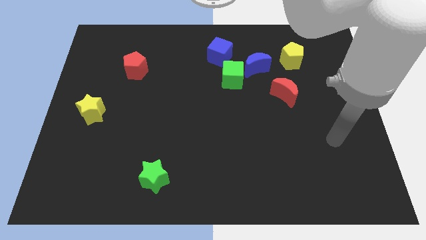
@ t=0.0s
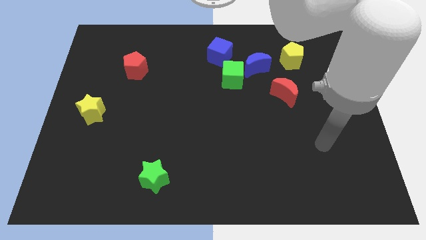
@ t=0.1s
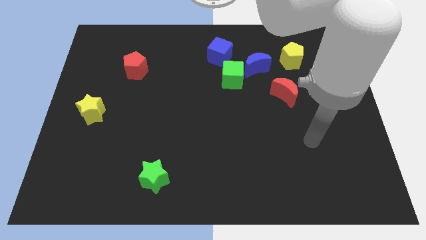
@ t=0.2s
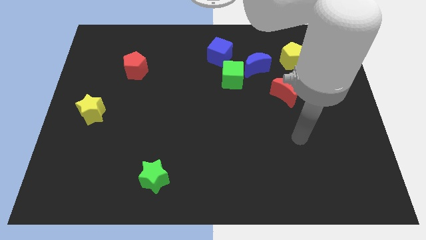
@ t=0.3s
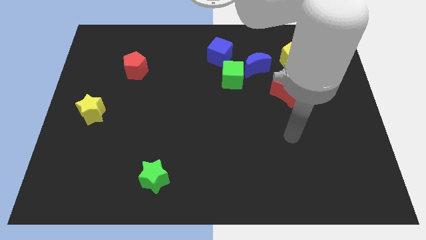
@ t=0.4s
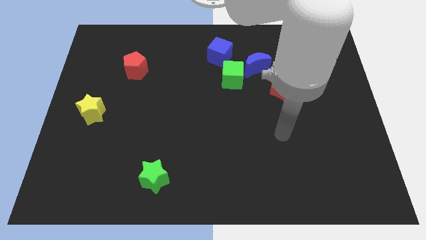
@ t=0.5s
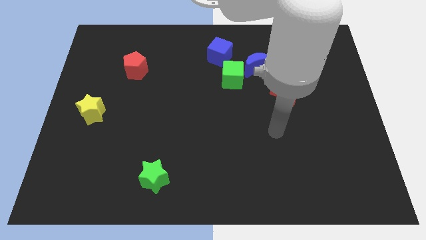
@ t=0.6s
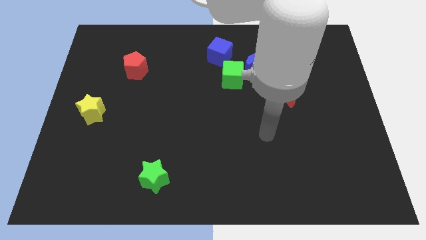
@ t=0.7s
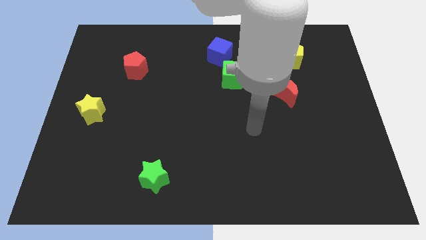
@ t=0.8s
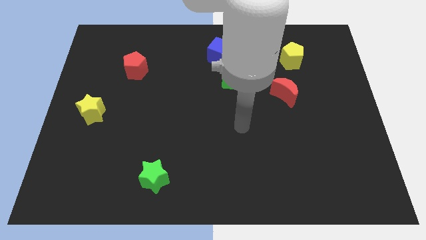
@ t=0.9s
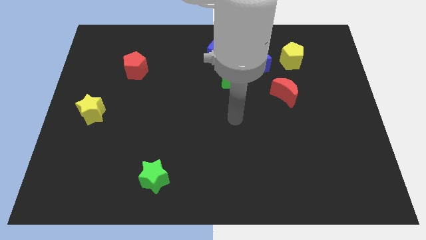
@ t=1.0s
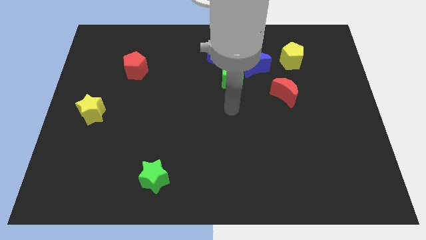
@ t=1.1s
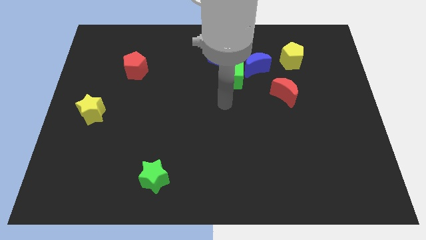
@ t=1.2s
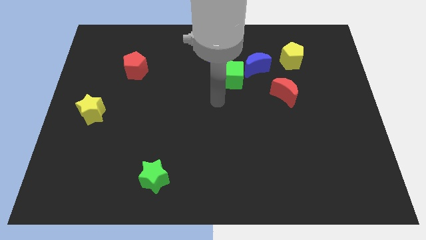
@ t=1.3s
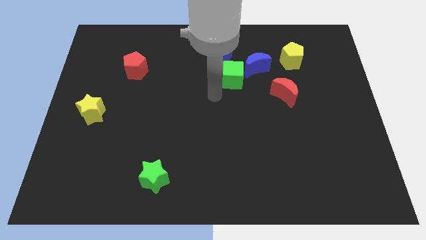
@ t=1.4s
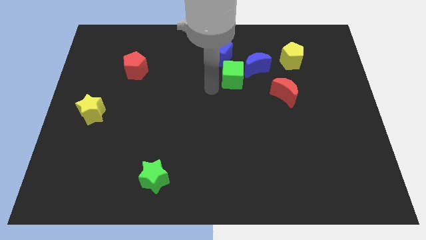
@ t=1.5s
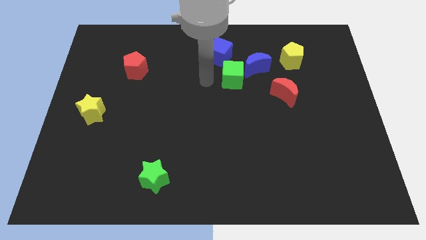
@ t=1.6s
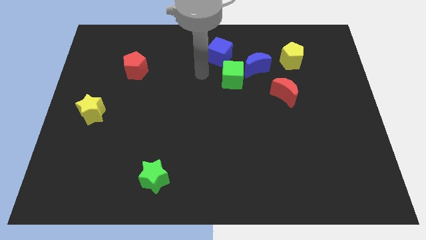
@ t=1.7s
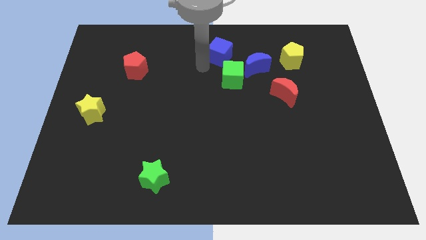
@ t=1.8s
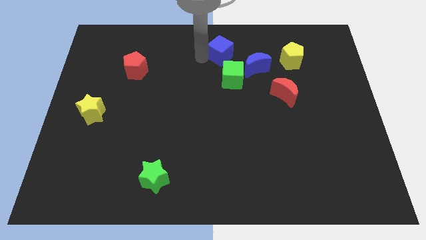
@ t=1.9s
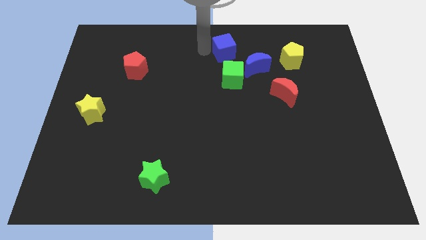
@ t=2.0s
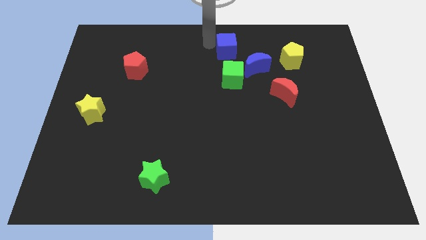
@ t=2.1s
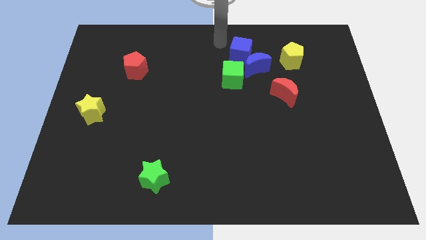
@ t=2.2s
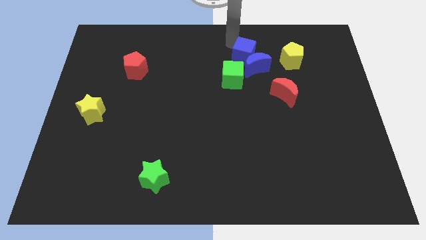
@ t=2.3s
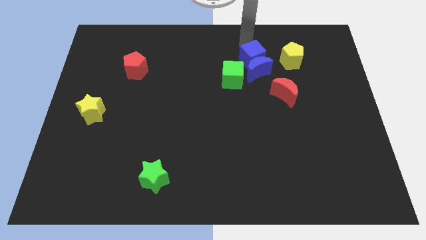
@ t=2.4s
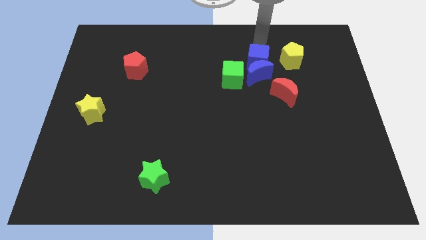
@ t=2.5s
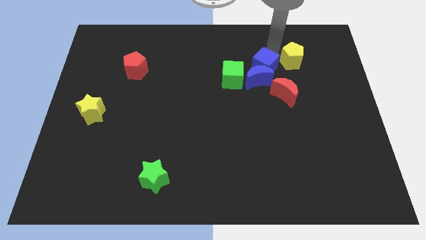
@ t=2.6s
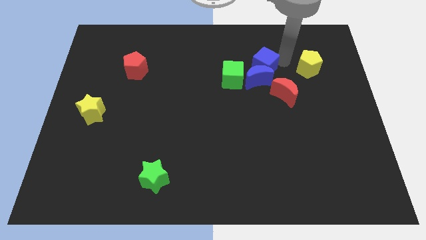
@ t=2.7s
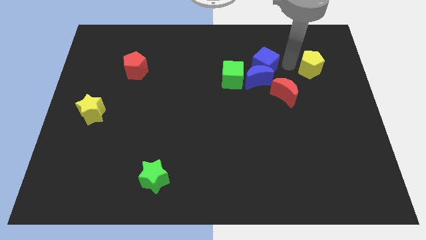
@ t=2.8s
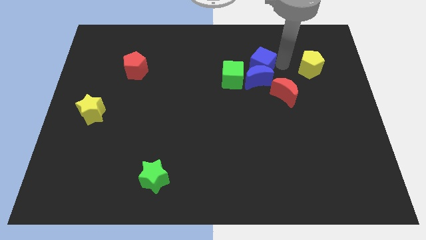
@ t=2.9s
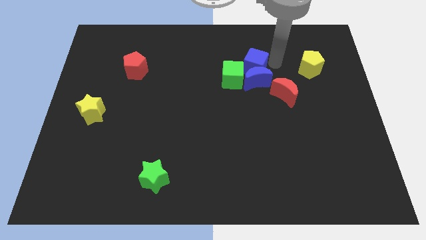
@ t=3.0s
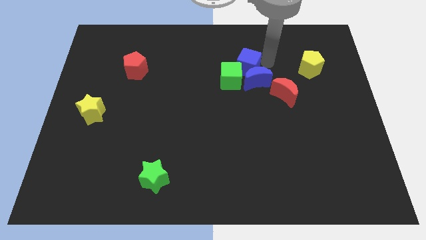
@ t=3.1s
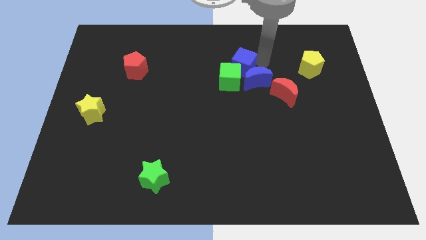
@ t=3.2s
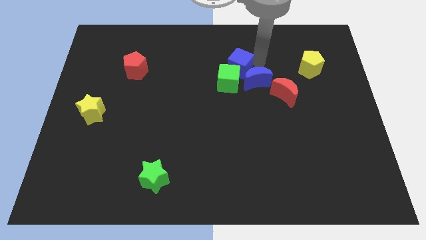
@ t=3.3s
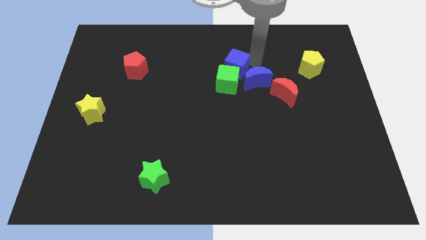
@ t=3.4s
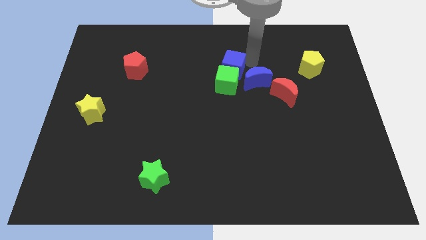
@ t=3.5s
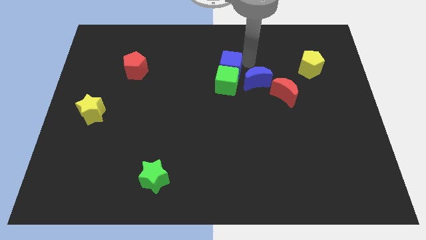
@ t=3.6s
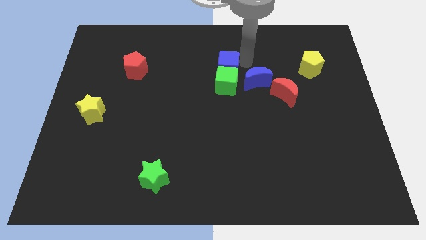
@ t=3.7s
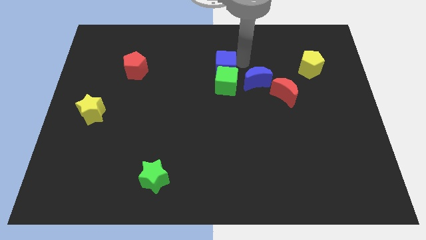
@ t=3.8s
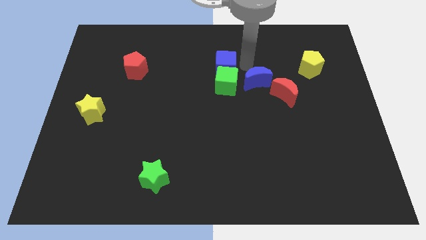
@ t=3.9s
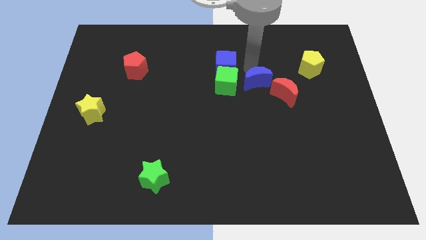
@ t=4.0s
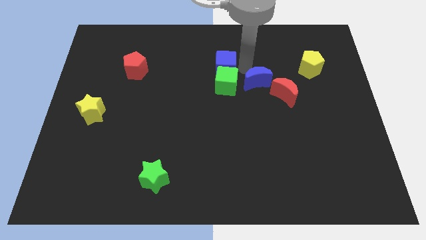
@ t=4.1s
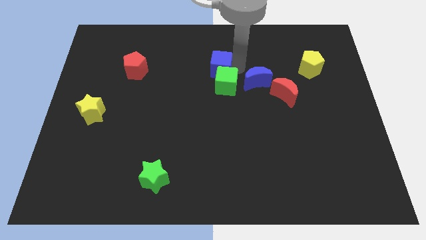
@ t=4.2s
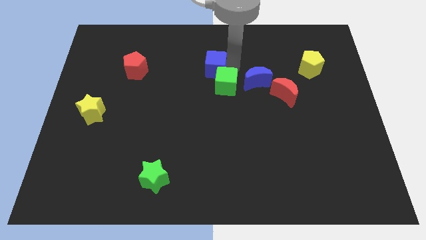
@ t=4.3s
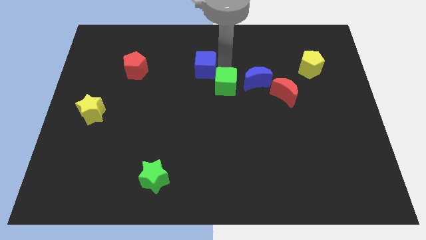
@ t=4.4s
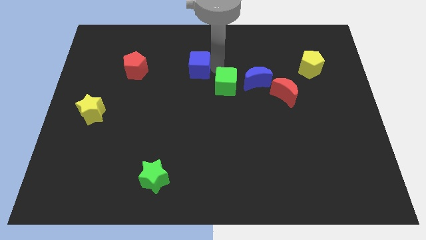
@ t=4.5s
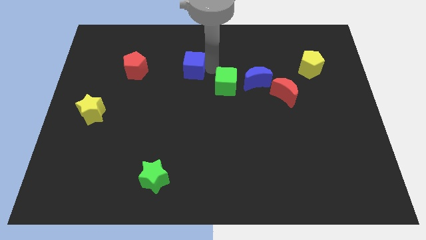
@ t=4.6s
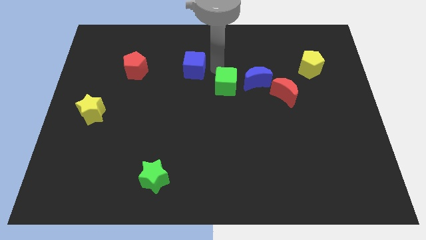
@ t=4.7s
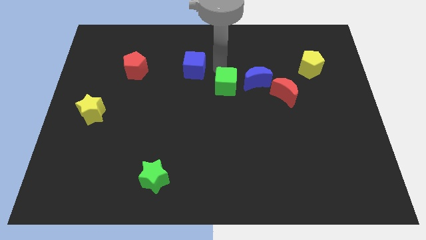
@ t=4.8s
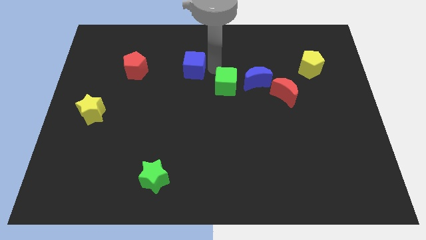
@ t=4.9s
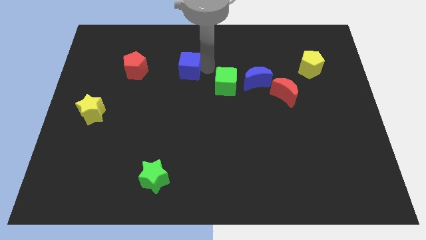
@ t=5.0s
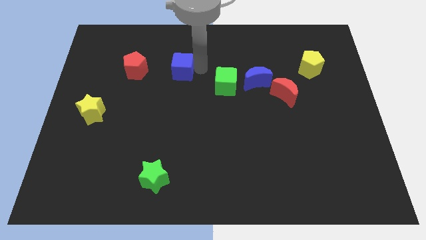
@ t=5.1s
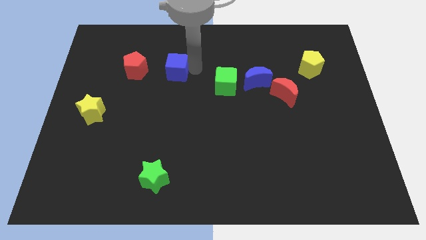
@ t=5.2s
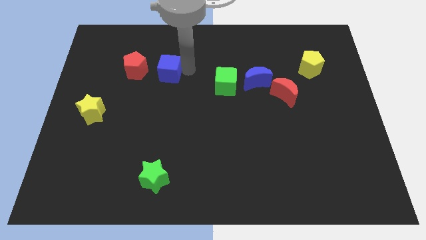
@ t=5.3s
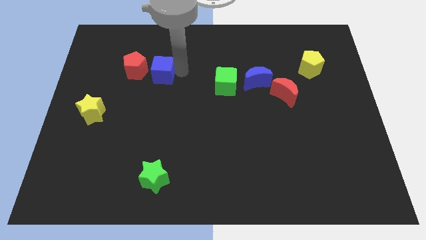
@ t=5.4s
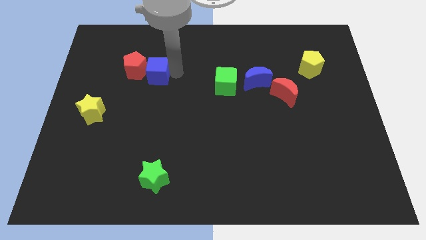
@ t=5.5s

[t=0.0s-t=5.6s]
push the blue cube next to the red pentagon

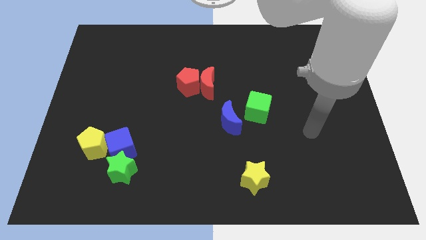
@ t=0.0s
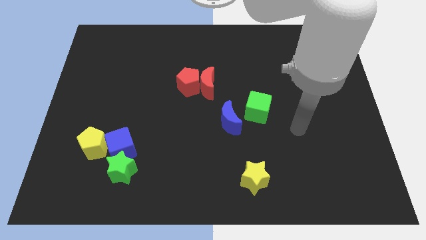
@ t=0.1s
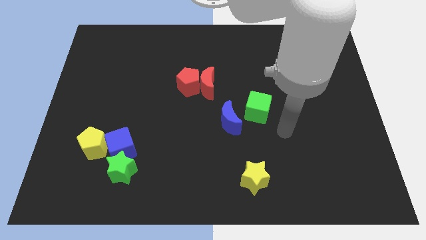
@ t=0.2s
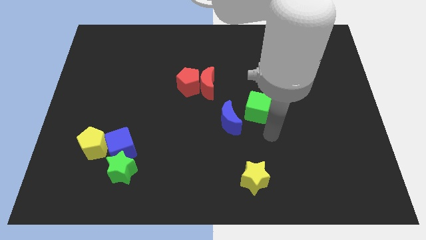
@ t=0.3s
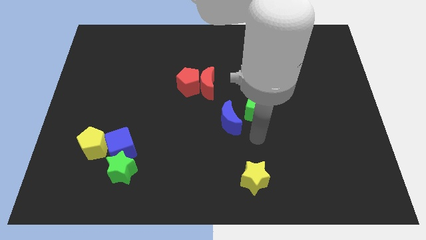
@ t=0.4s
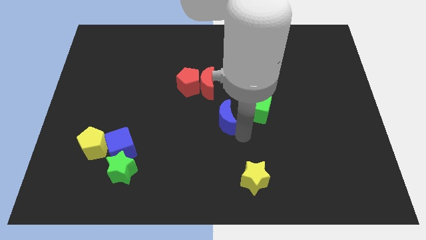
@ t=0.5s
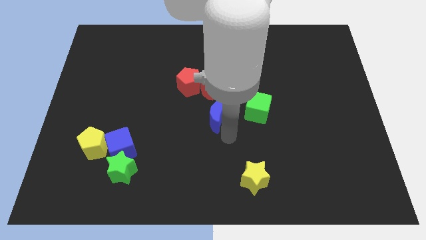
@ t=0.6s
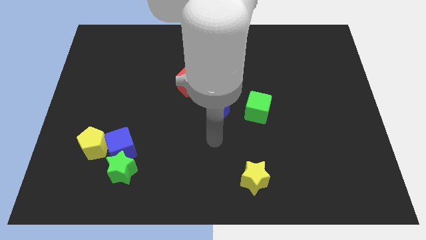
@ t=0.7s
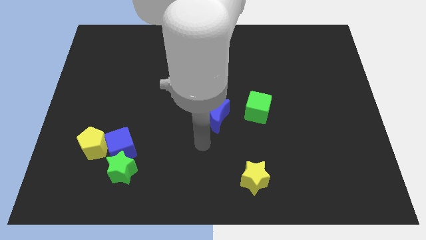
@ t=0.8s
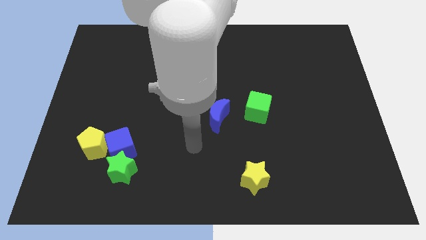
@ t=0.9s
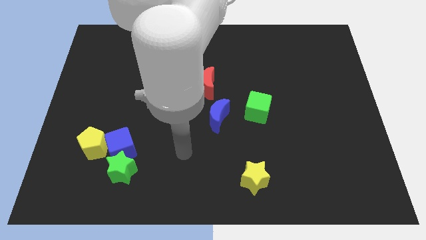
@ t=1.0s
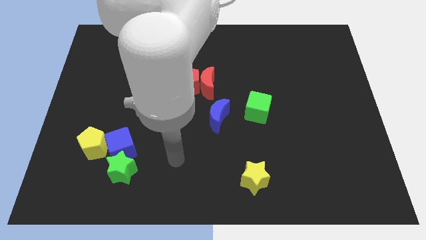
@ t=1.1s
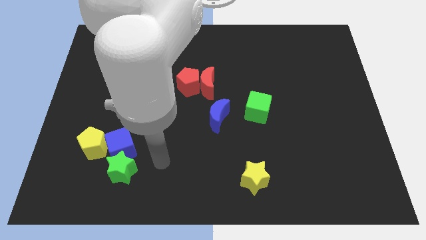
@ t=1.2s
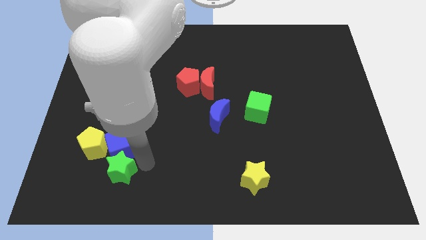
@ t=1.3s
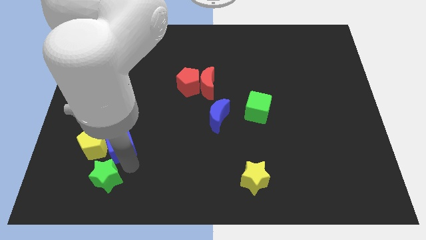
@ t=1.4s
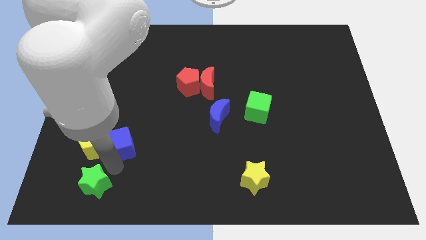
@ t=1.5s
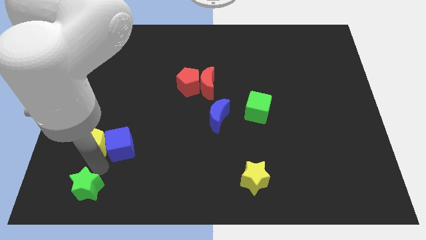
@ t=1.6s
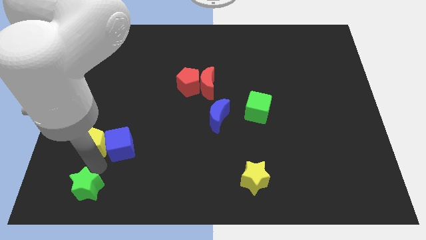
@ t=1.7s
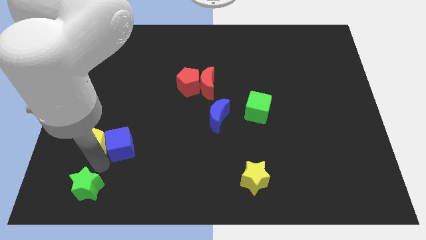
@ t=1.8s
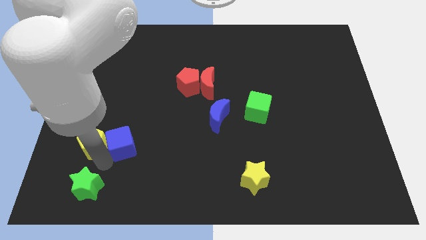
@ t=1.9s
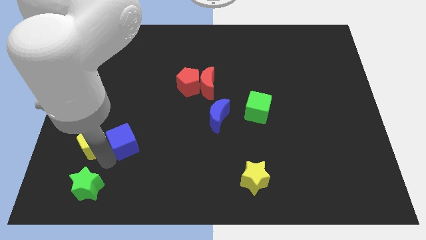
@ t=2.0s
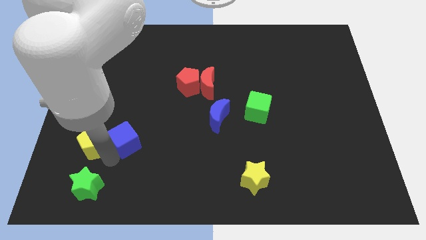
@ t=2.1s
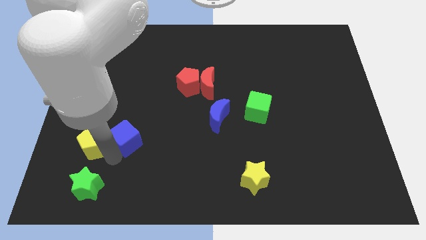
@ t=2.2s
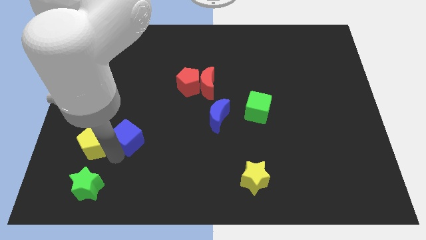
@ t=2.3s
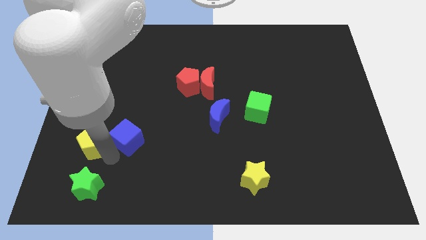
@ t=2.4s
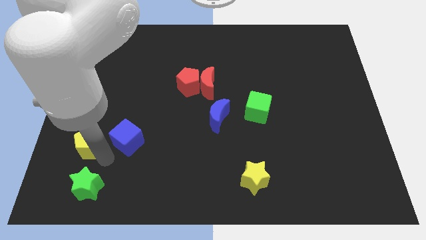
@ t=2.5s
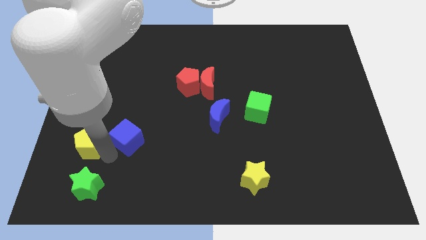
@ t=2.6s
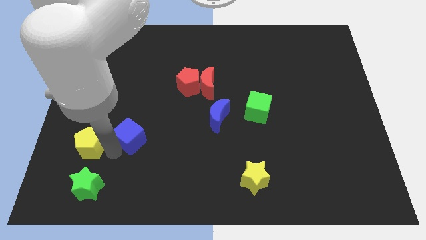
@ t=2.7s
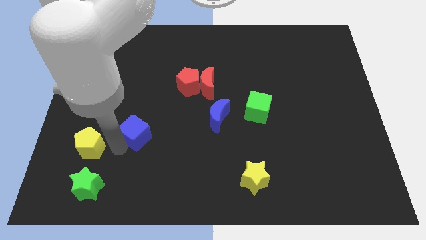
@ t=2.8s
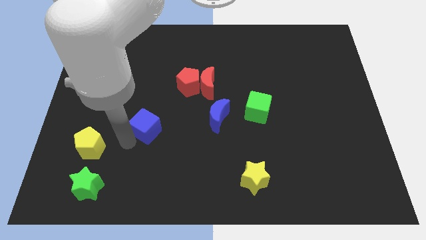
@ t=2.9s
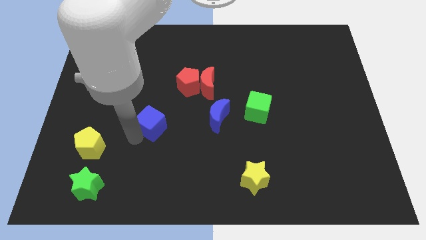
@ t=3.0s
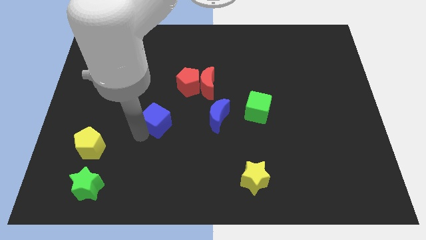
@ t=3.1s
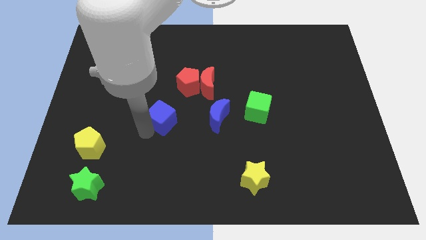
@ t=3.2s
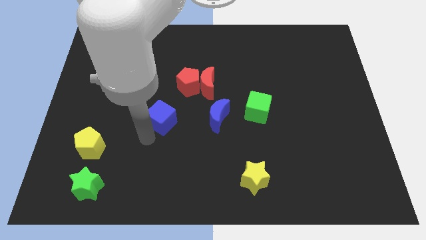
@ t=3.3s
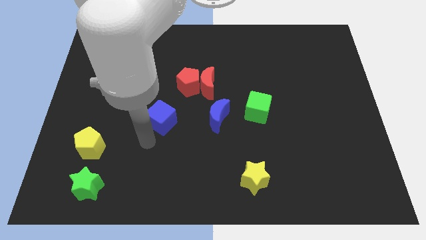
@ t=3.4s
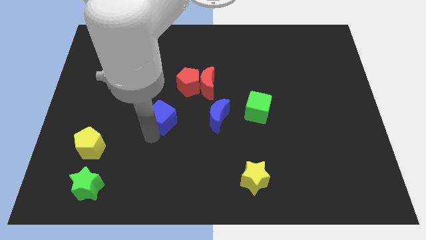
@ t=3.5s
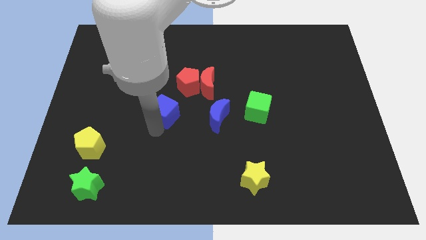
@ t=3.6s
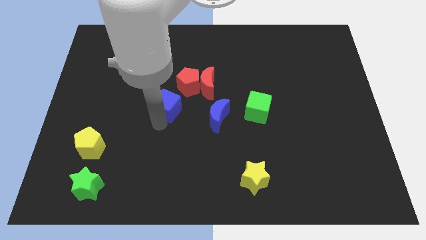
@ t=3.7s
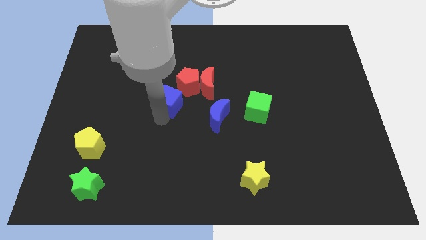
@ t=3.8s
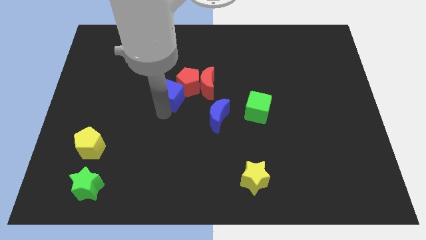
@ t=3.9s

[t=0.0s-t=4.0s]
put the blue cube to the red pentagon
